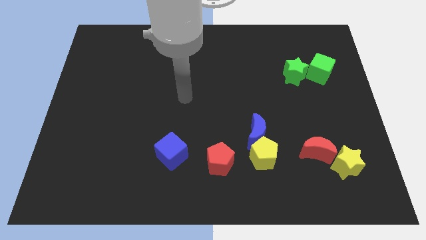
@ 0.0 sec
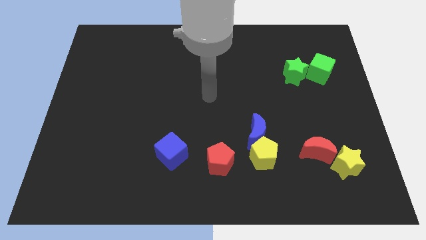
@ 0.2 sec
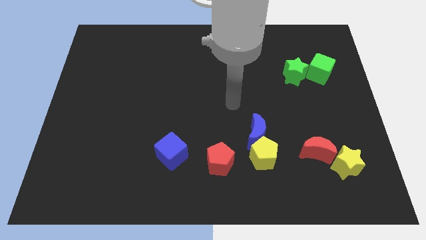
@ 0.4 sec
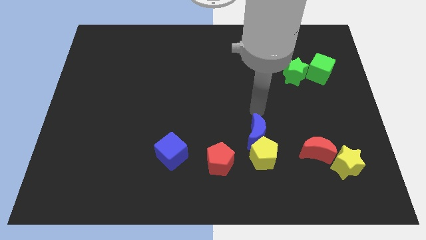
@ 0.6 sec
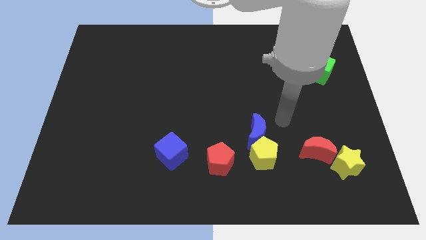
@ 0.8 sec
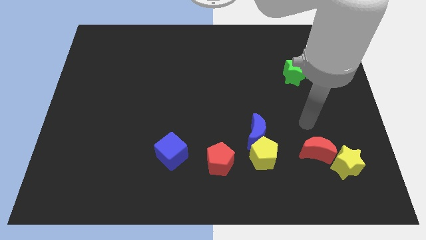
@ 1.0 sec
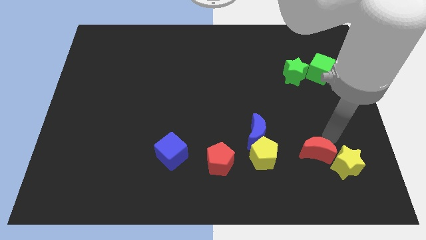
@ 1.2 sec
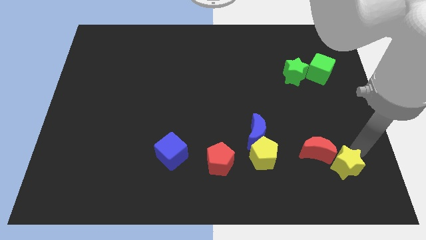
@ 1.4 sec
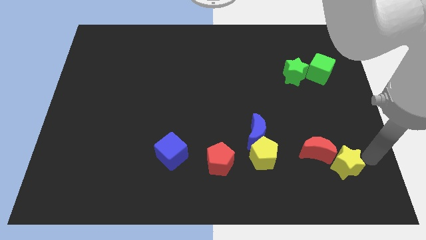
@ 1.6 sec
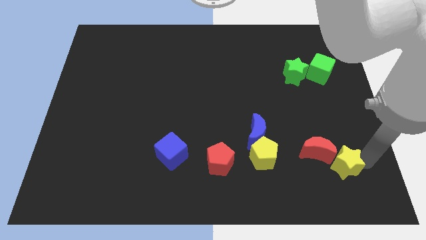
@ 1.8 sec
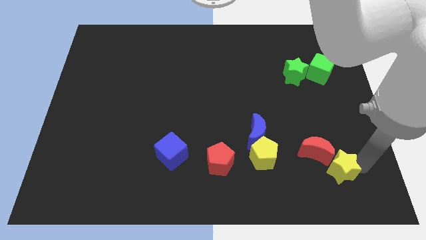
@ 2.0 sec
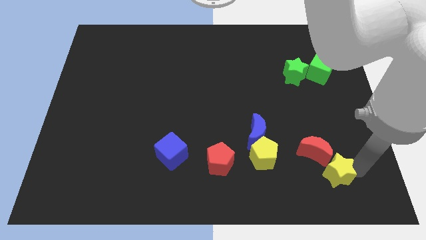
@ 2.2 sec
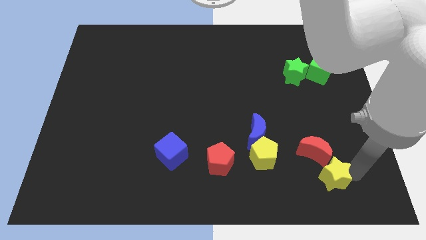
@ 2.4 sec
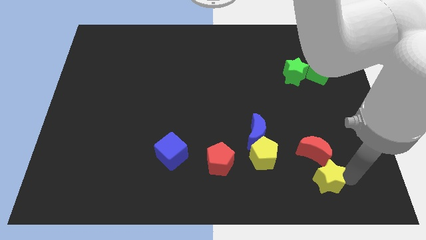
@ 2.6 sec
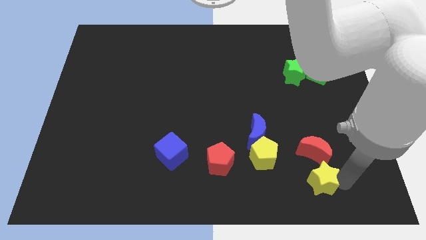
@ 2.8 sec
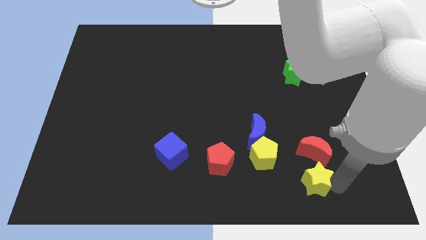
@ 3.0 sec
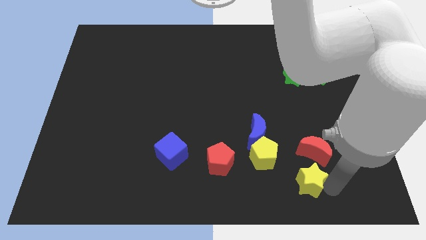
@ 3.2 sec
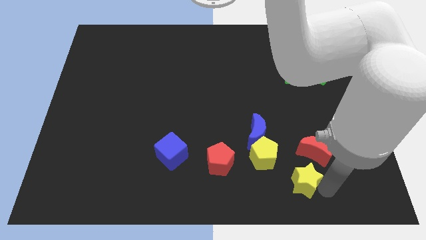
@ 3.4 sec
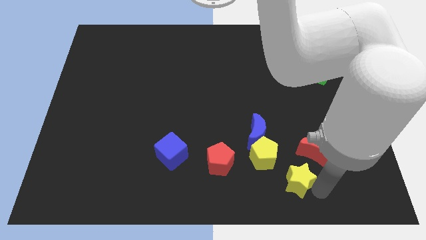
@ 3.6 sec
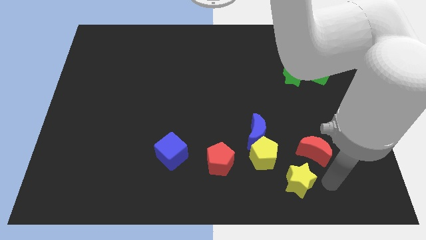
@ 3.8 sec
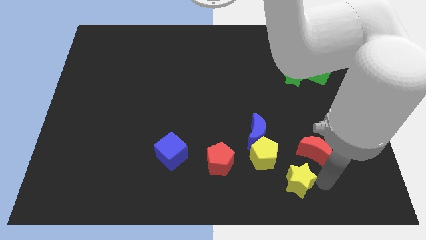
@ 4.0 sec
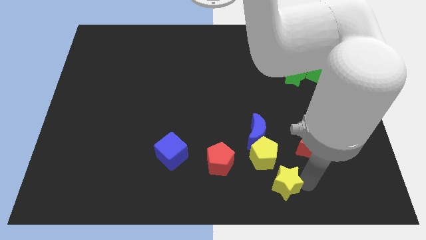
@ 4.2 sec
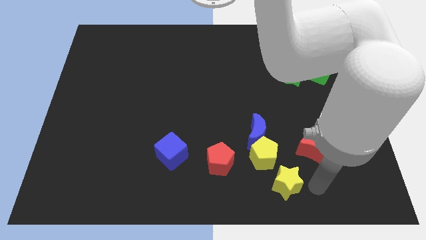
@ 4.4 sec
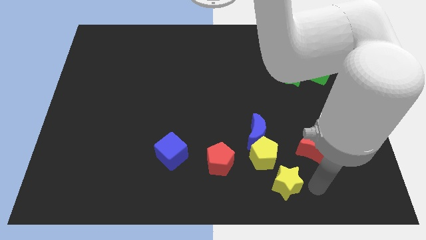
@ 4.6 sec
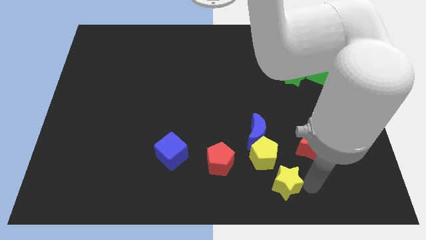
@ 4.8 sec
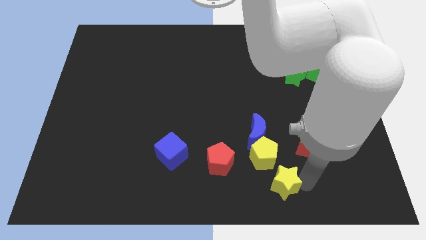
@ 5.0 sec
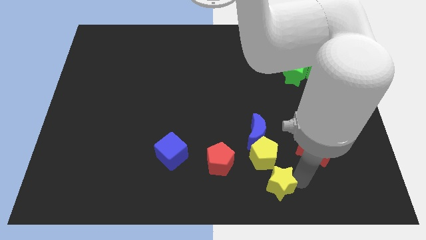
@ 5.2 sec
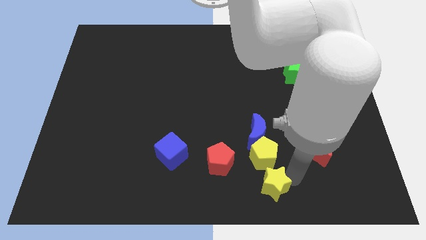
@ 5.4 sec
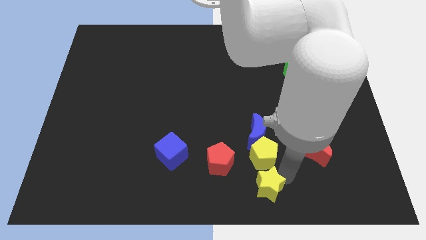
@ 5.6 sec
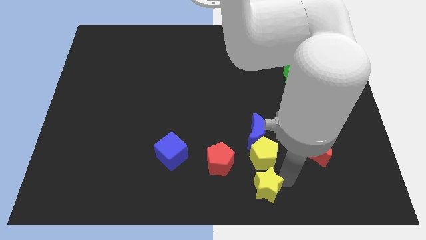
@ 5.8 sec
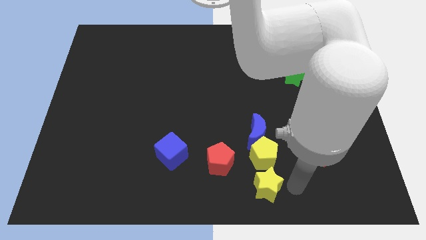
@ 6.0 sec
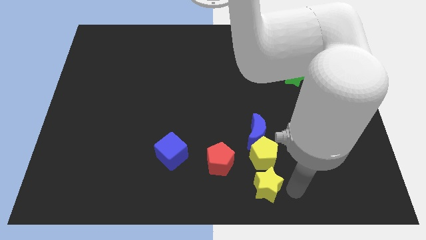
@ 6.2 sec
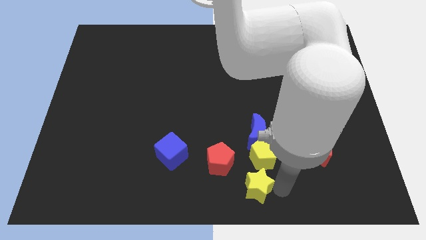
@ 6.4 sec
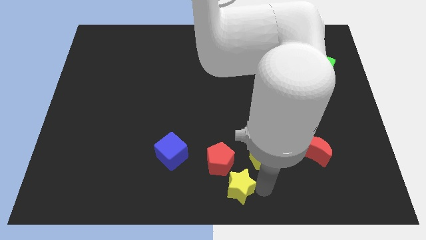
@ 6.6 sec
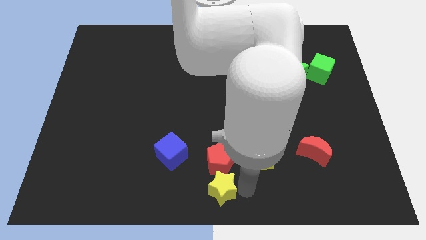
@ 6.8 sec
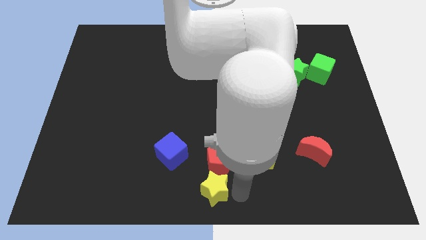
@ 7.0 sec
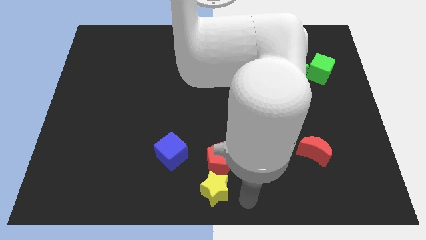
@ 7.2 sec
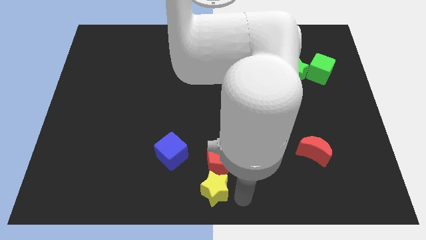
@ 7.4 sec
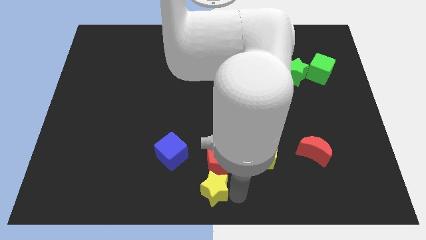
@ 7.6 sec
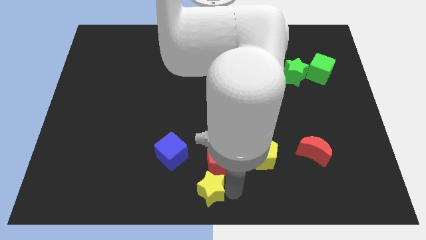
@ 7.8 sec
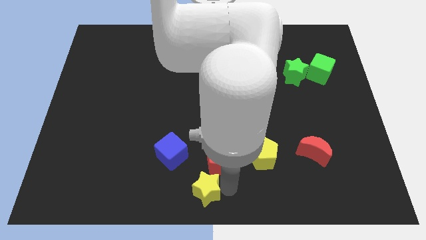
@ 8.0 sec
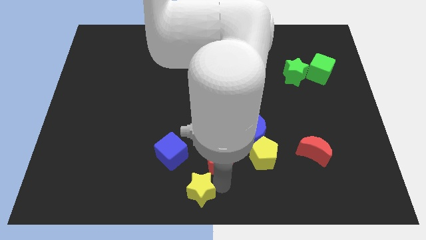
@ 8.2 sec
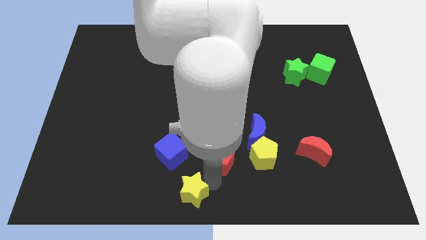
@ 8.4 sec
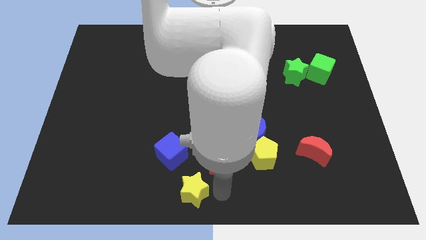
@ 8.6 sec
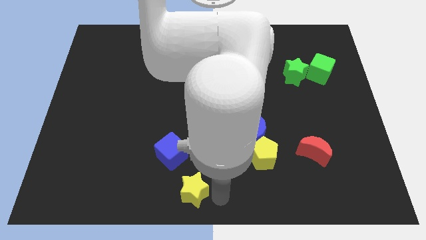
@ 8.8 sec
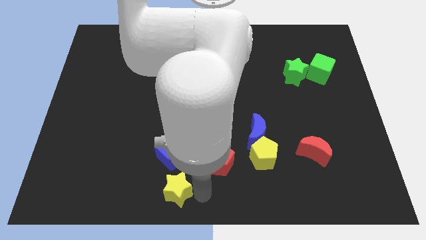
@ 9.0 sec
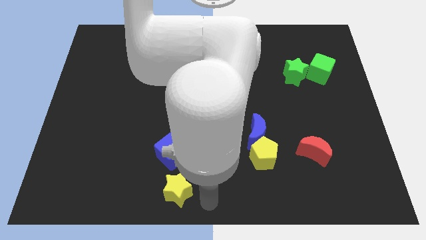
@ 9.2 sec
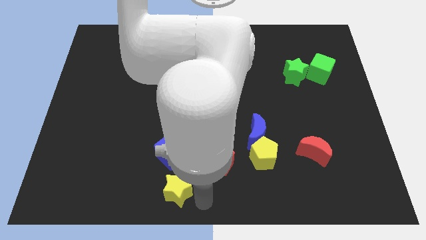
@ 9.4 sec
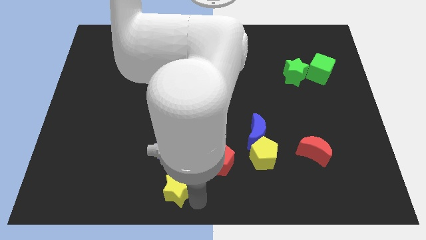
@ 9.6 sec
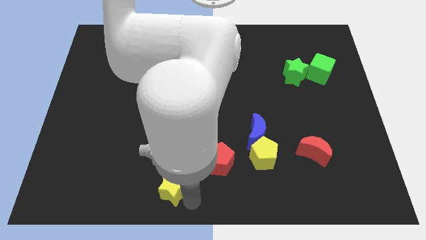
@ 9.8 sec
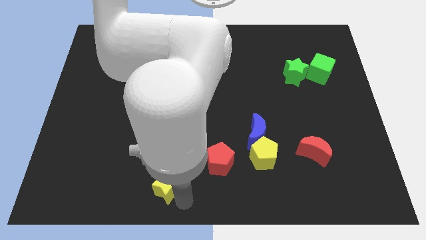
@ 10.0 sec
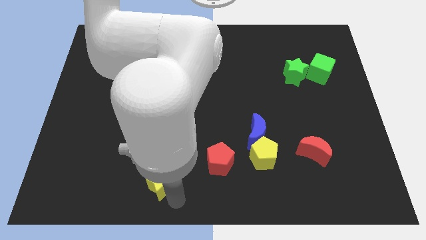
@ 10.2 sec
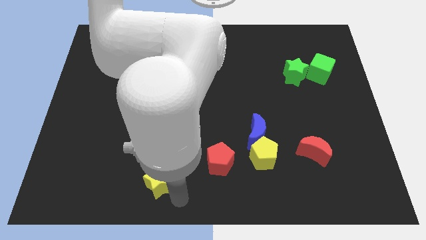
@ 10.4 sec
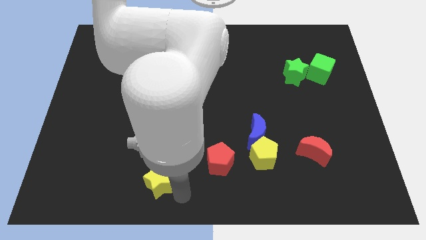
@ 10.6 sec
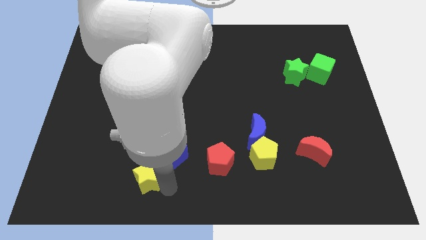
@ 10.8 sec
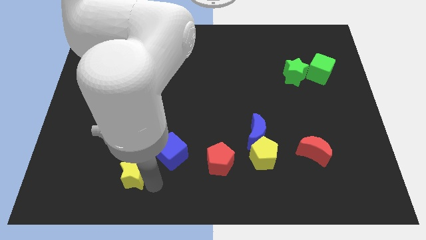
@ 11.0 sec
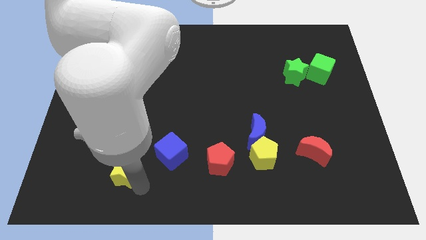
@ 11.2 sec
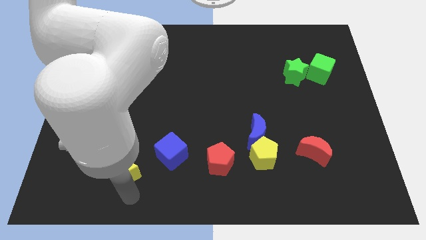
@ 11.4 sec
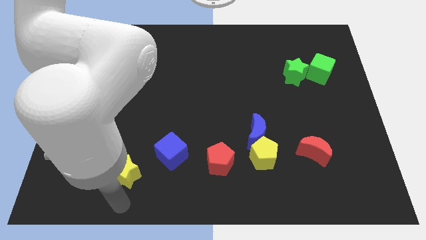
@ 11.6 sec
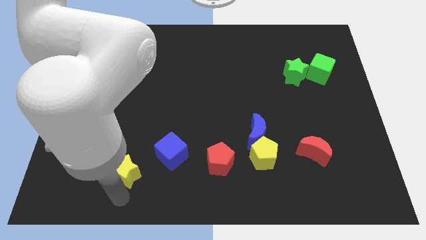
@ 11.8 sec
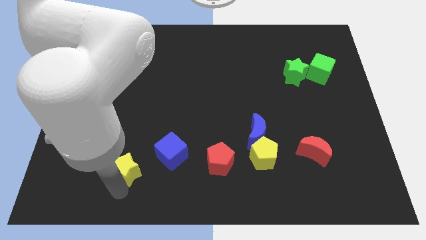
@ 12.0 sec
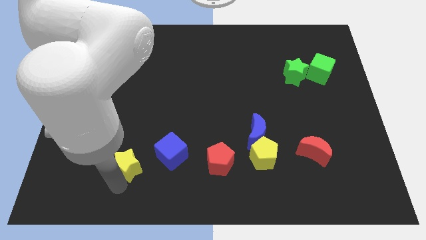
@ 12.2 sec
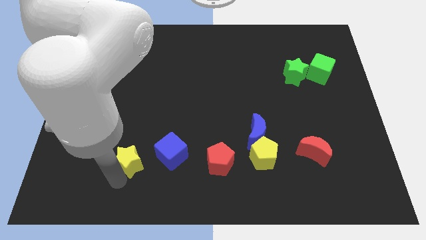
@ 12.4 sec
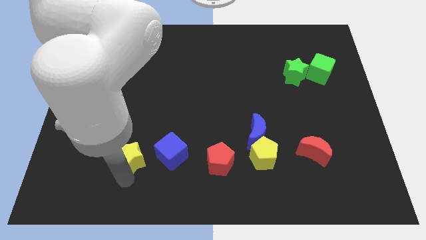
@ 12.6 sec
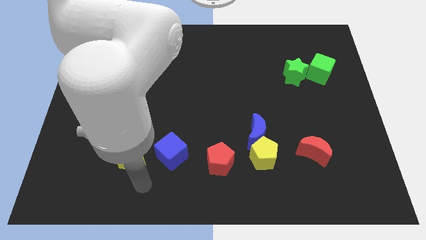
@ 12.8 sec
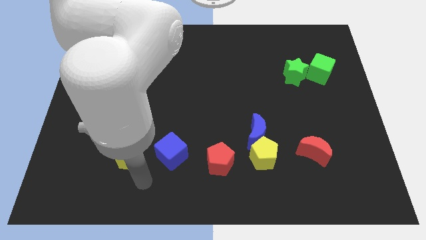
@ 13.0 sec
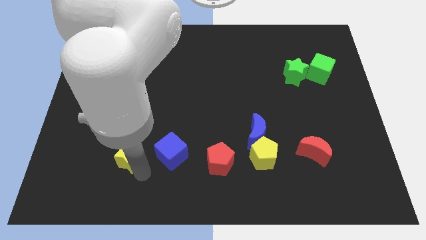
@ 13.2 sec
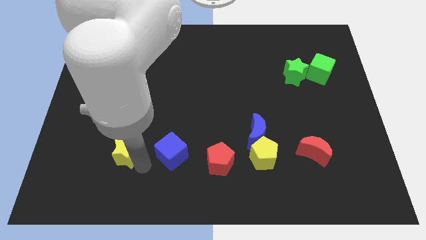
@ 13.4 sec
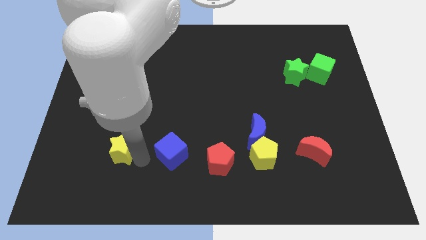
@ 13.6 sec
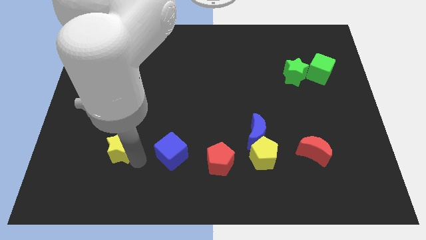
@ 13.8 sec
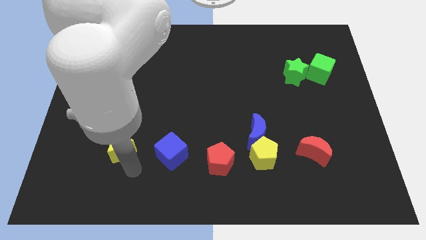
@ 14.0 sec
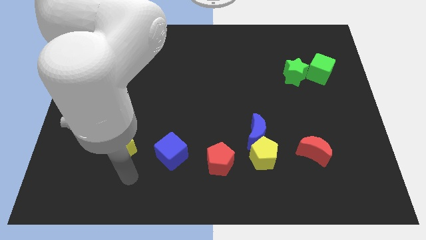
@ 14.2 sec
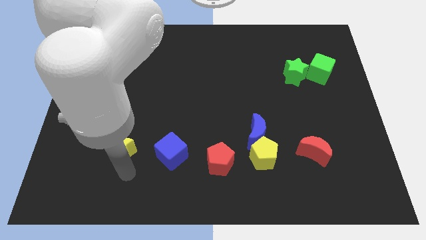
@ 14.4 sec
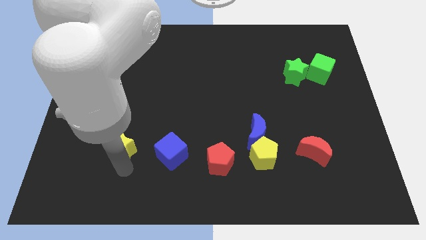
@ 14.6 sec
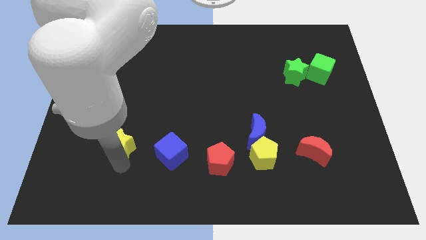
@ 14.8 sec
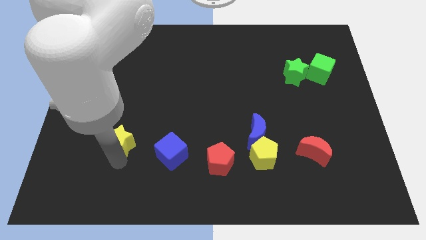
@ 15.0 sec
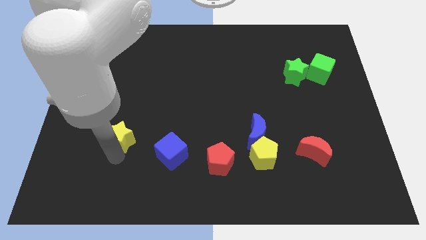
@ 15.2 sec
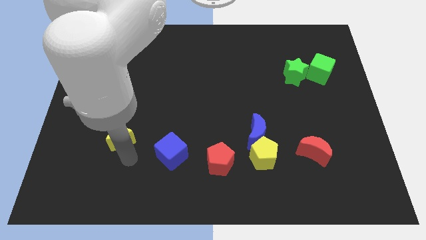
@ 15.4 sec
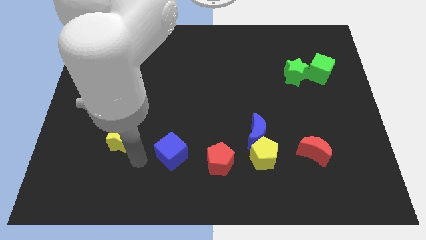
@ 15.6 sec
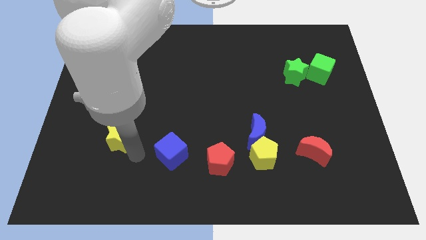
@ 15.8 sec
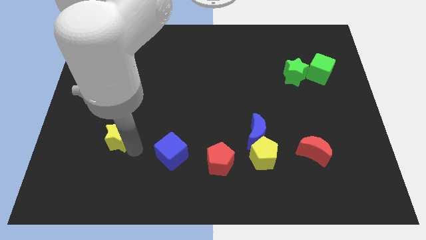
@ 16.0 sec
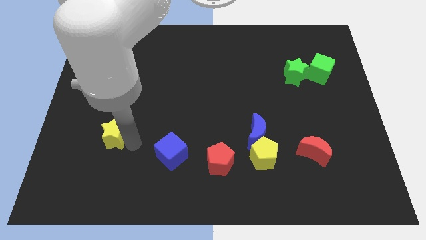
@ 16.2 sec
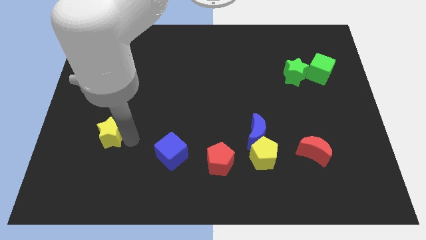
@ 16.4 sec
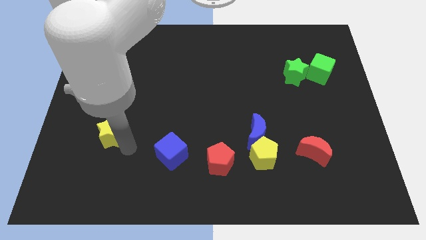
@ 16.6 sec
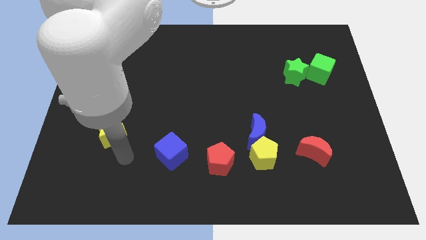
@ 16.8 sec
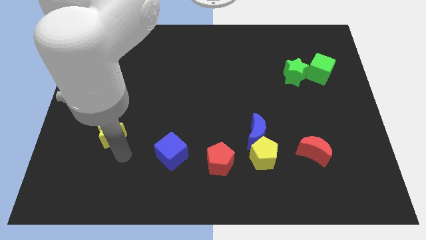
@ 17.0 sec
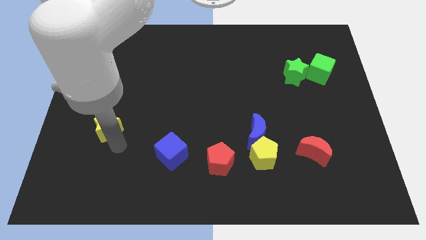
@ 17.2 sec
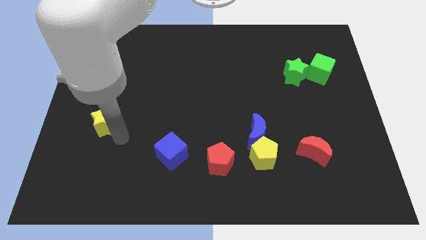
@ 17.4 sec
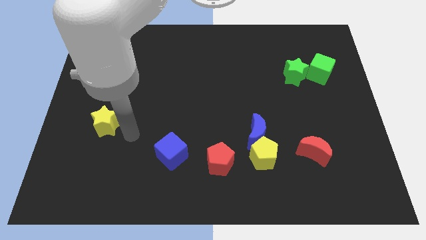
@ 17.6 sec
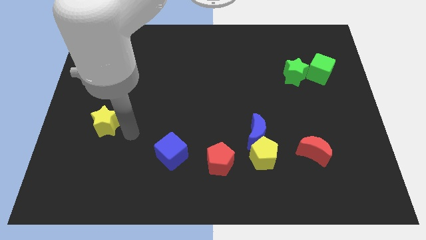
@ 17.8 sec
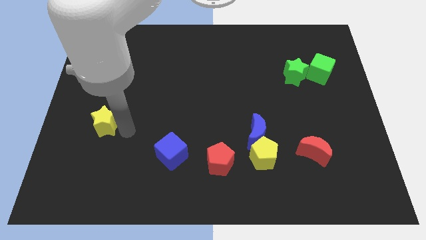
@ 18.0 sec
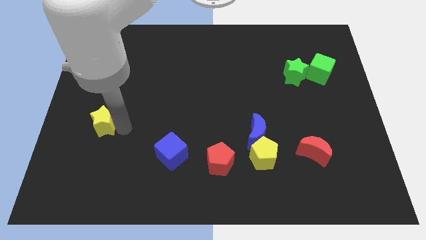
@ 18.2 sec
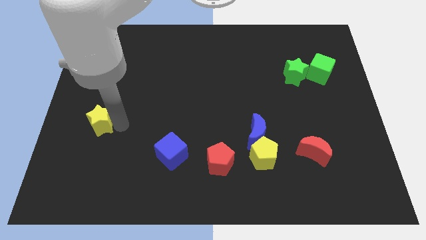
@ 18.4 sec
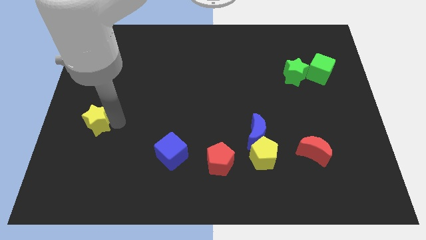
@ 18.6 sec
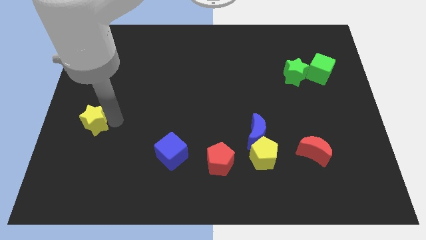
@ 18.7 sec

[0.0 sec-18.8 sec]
put the yellow star to the left side of the board
